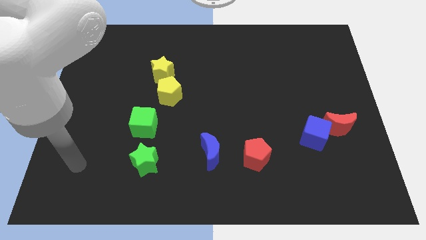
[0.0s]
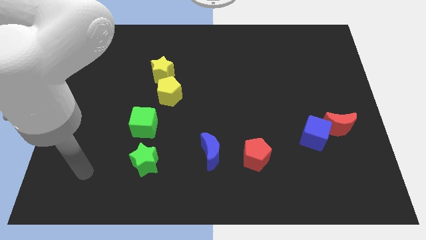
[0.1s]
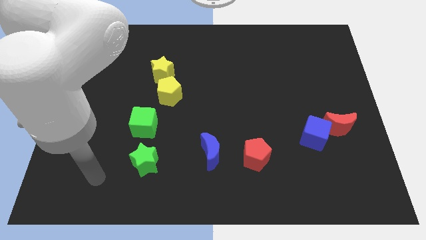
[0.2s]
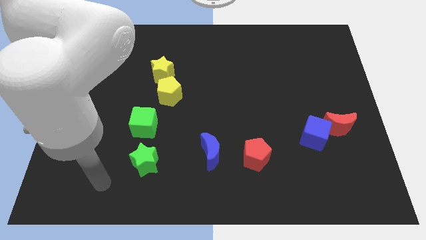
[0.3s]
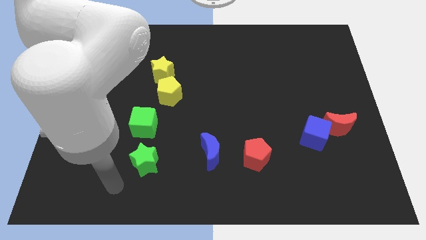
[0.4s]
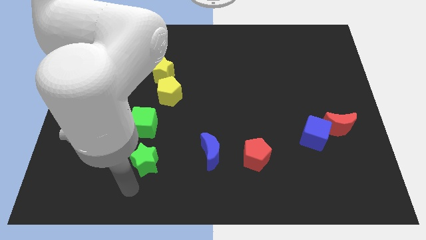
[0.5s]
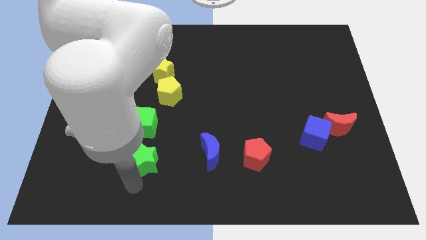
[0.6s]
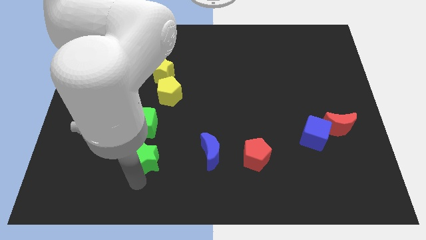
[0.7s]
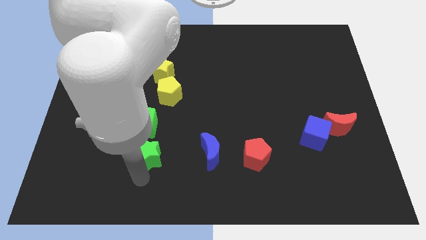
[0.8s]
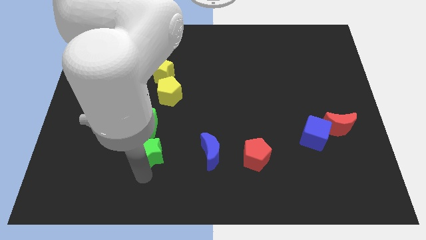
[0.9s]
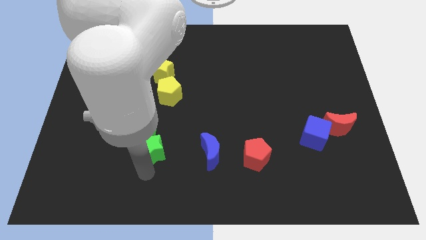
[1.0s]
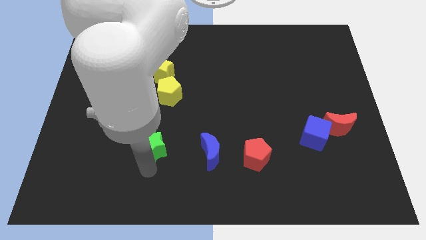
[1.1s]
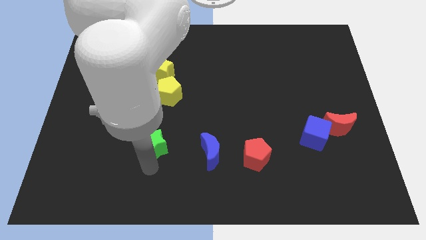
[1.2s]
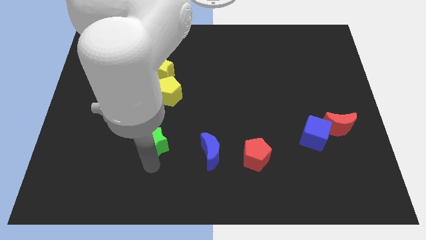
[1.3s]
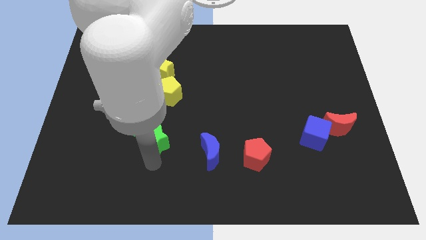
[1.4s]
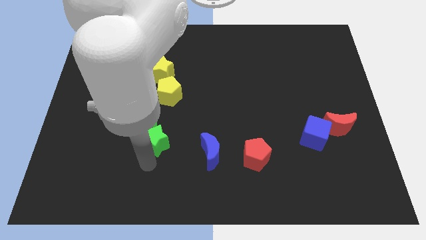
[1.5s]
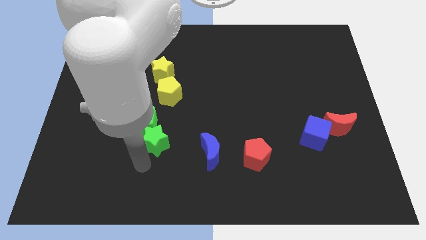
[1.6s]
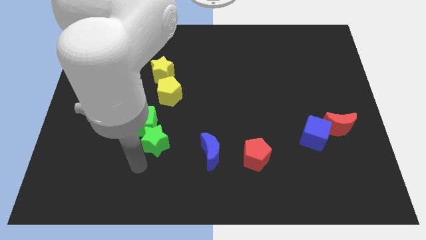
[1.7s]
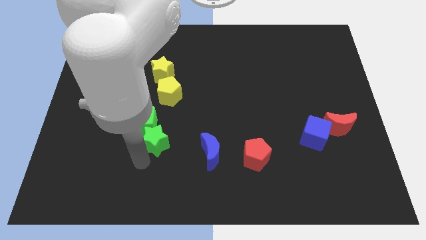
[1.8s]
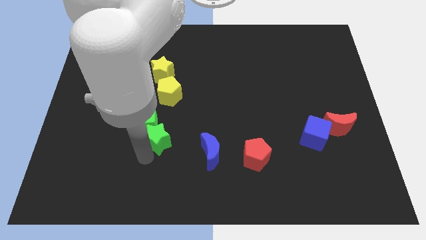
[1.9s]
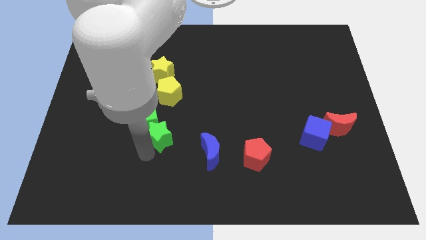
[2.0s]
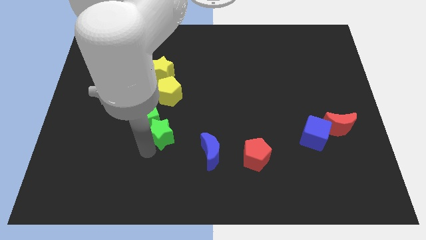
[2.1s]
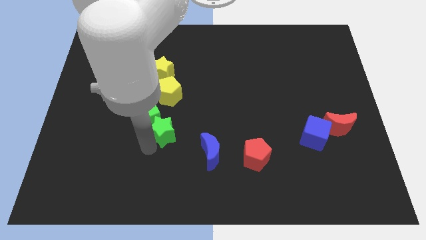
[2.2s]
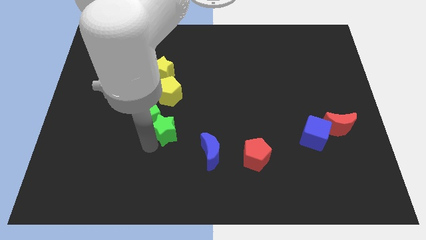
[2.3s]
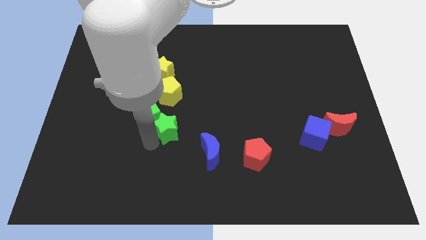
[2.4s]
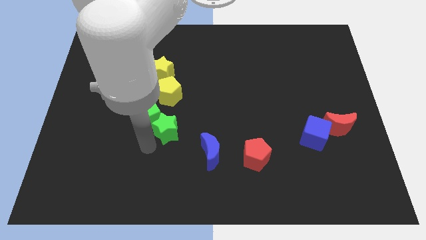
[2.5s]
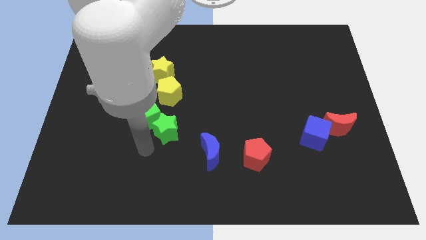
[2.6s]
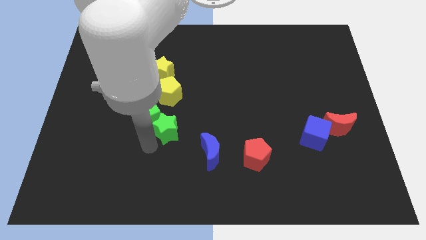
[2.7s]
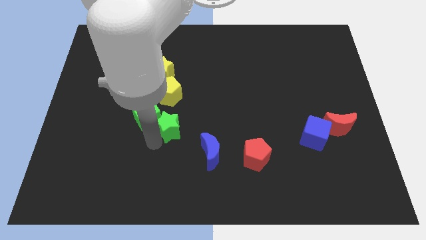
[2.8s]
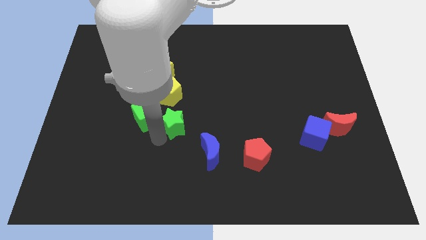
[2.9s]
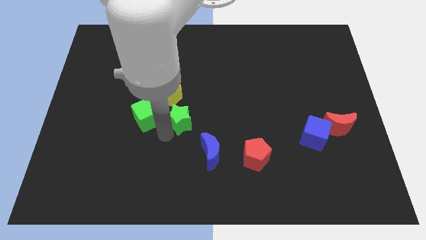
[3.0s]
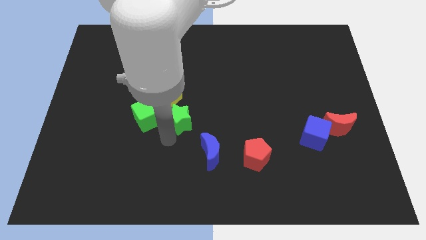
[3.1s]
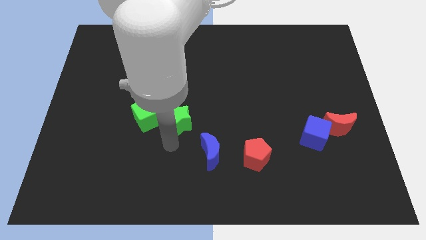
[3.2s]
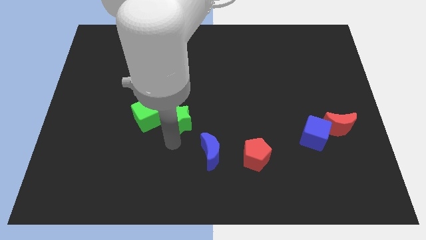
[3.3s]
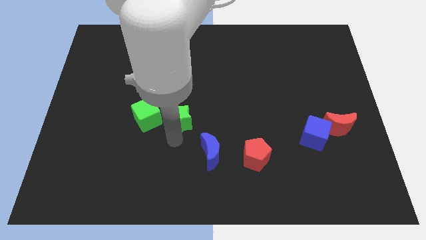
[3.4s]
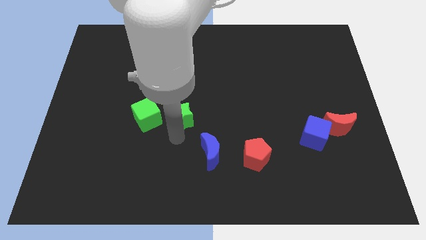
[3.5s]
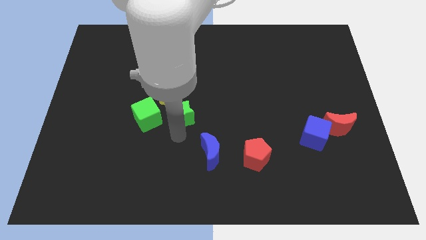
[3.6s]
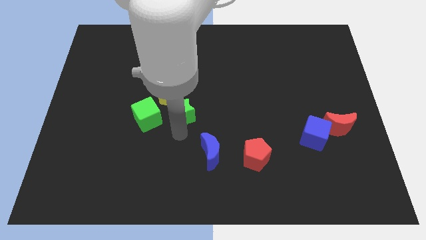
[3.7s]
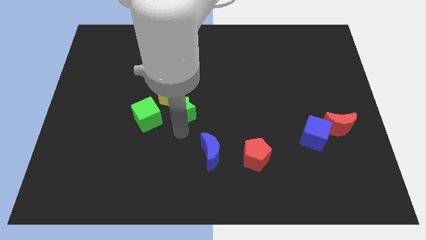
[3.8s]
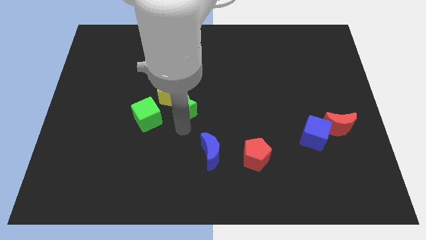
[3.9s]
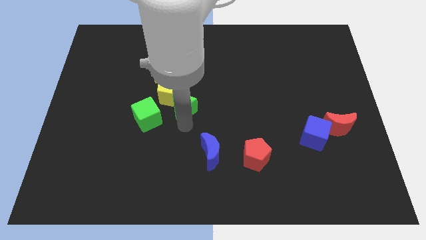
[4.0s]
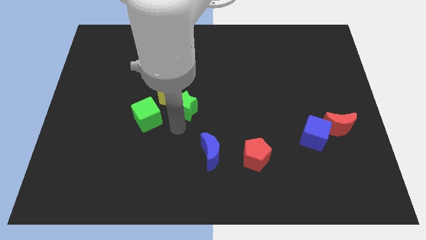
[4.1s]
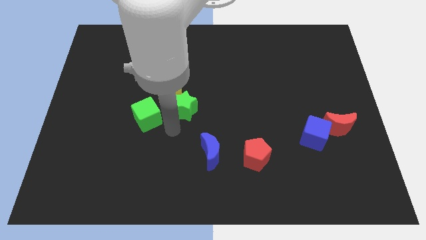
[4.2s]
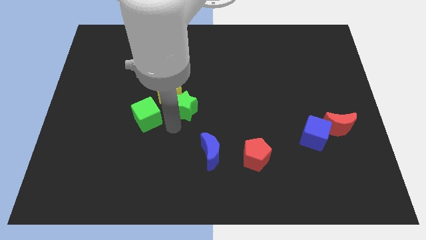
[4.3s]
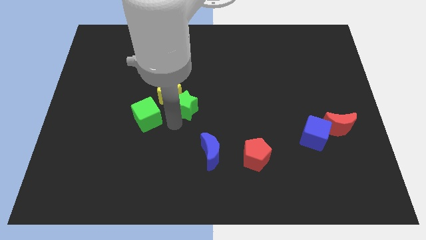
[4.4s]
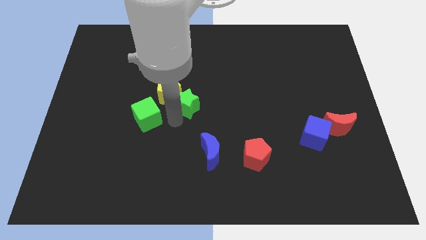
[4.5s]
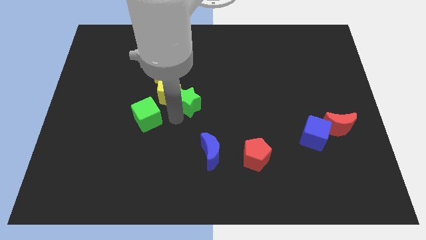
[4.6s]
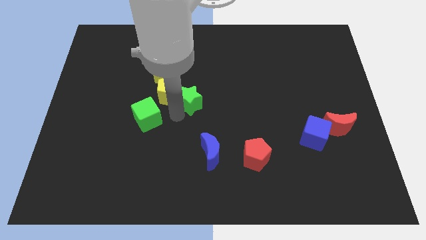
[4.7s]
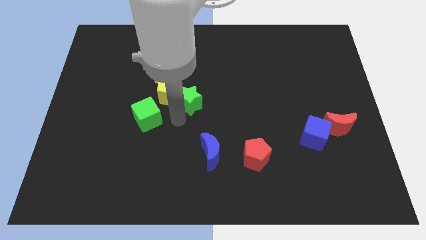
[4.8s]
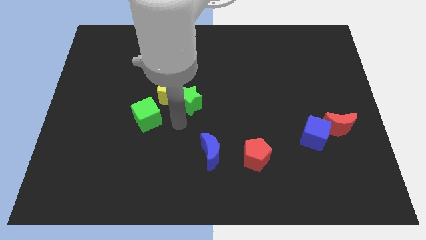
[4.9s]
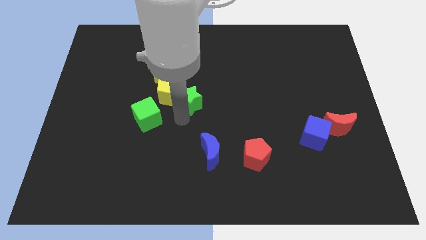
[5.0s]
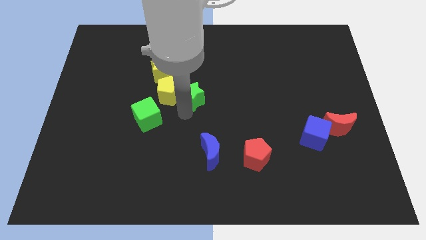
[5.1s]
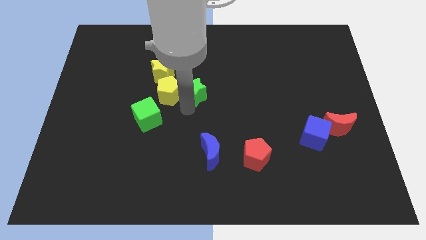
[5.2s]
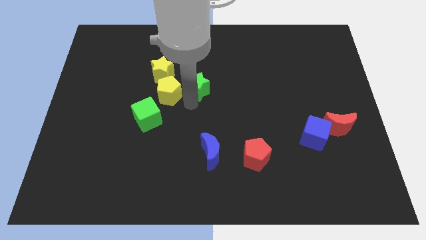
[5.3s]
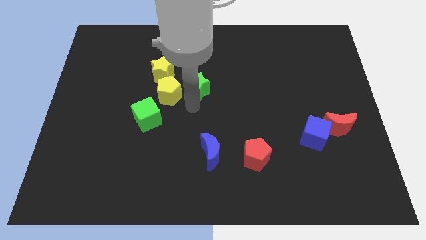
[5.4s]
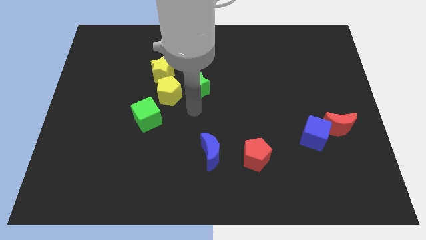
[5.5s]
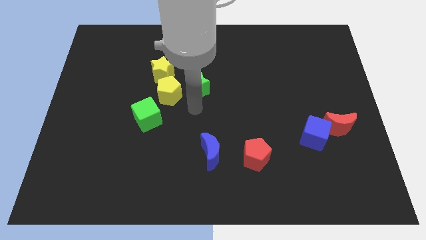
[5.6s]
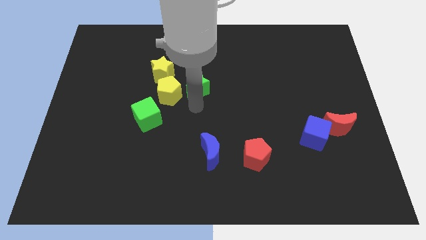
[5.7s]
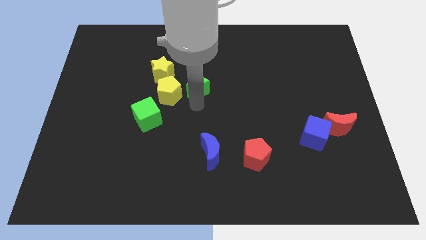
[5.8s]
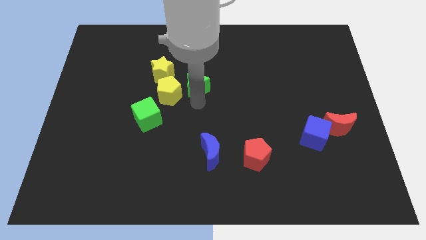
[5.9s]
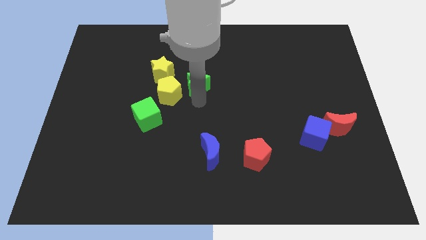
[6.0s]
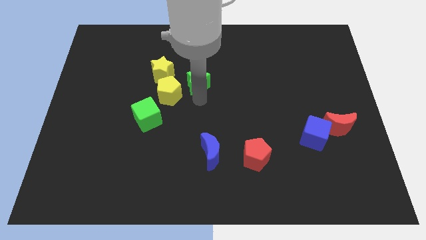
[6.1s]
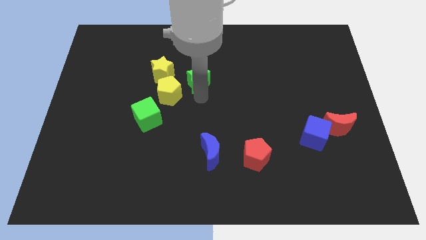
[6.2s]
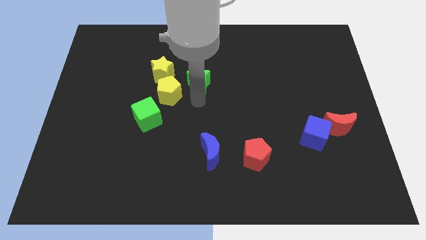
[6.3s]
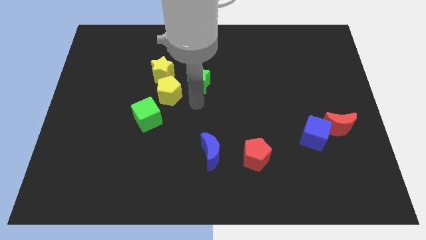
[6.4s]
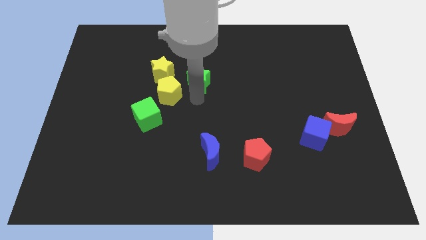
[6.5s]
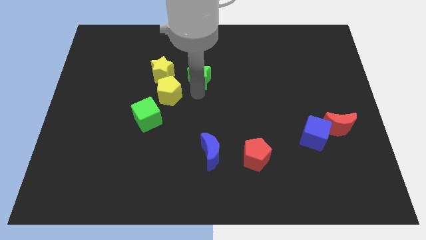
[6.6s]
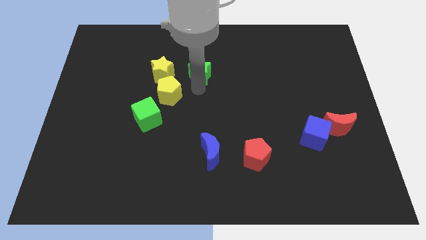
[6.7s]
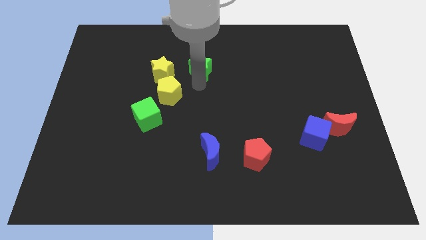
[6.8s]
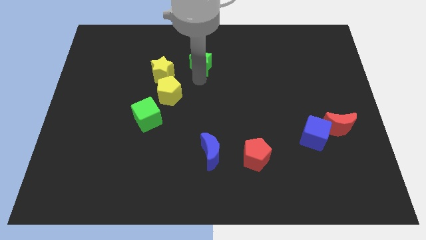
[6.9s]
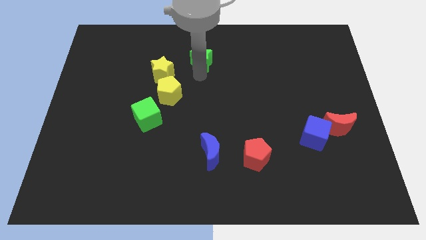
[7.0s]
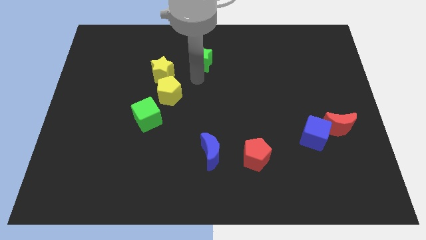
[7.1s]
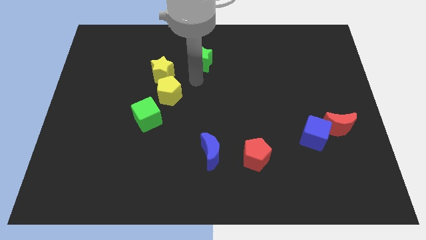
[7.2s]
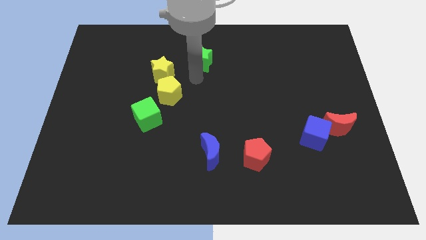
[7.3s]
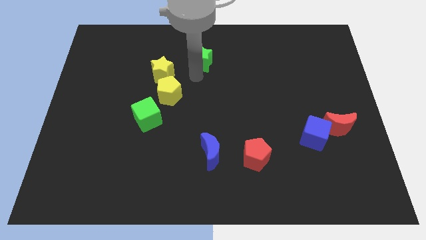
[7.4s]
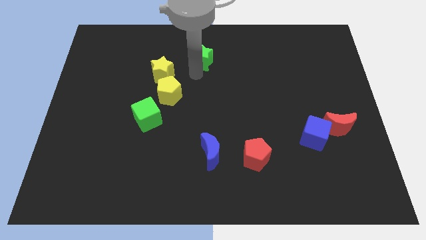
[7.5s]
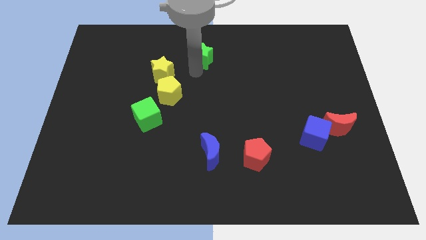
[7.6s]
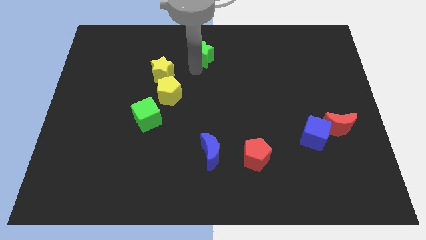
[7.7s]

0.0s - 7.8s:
move the green star to the top
